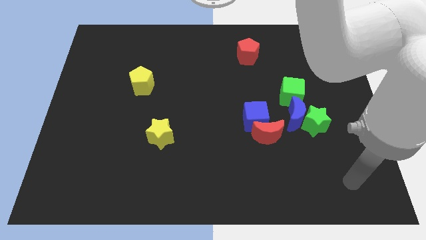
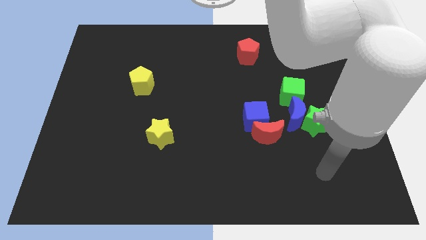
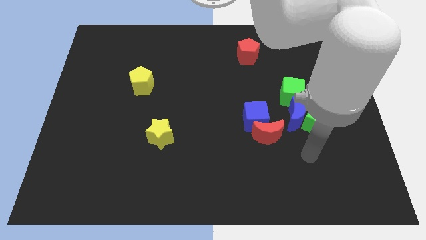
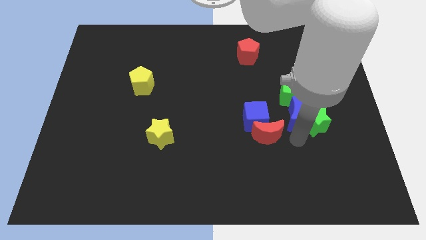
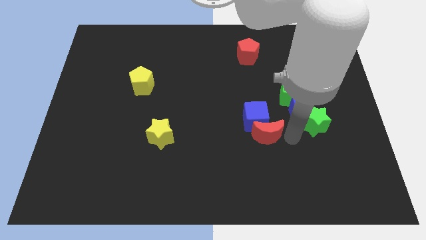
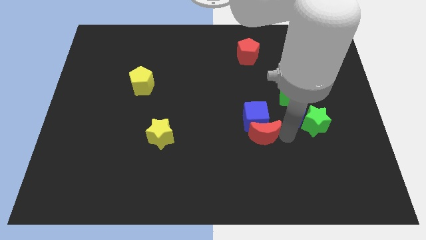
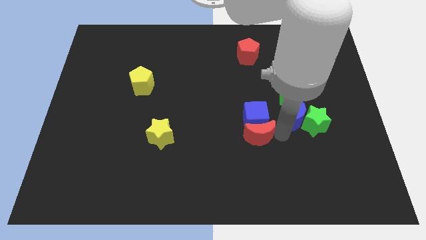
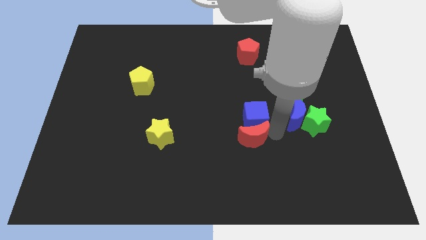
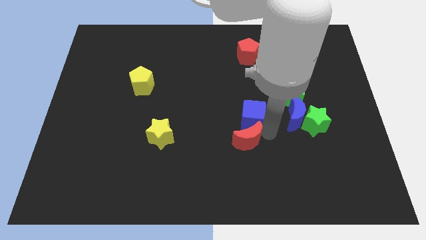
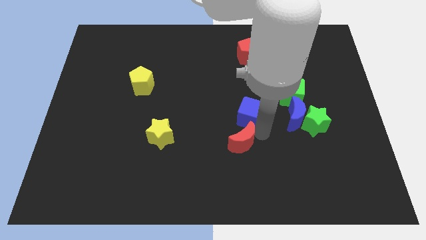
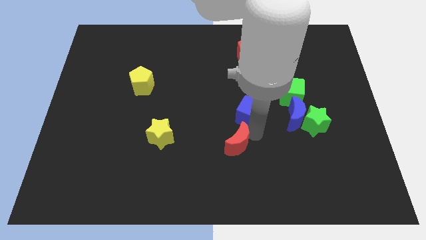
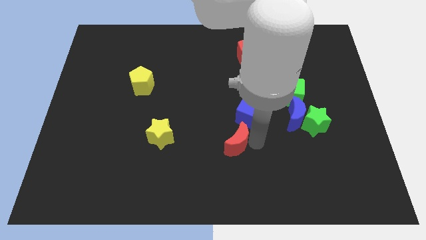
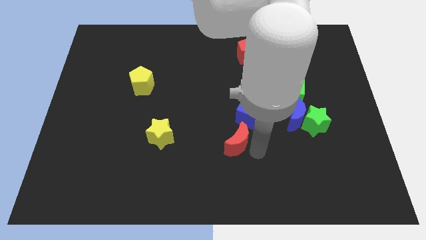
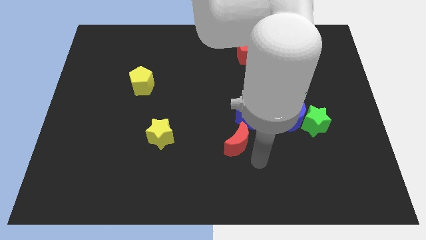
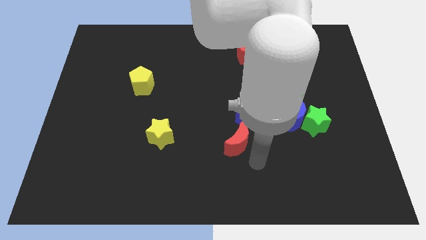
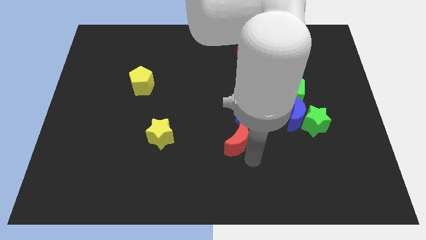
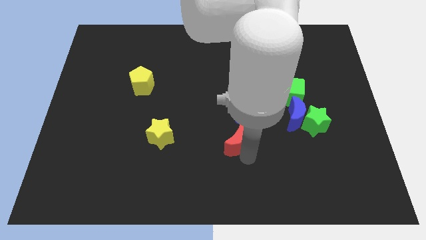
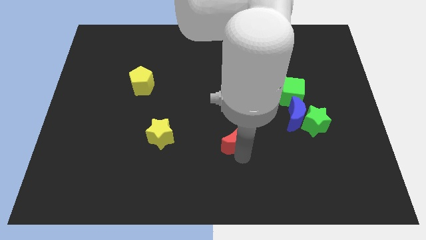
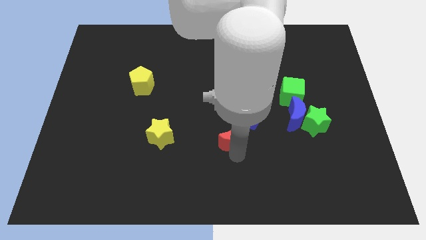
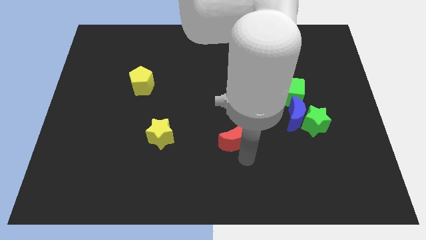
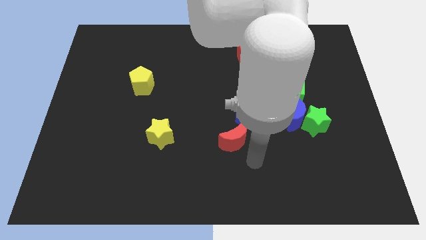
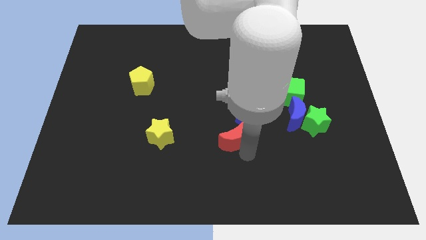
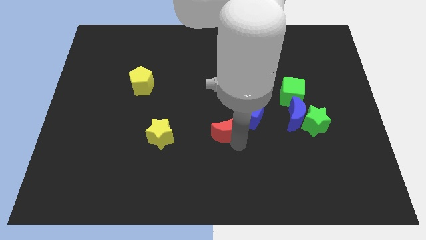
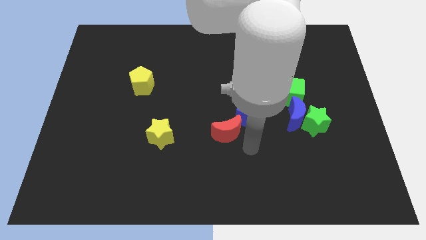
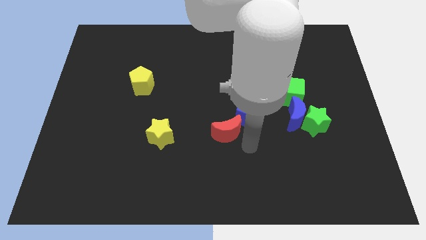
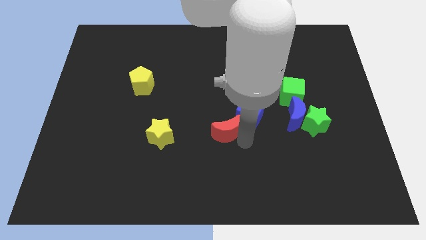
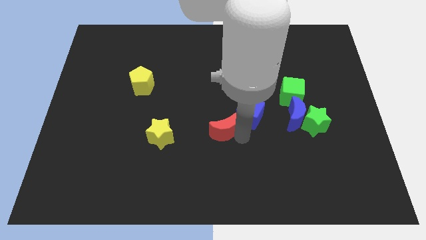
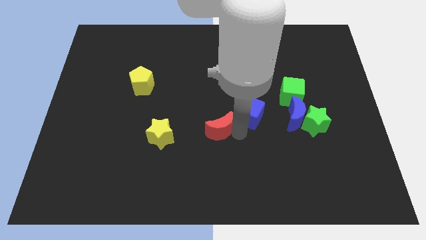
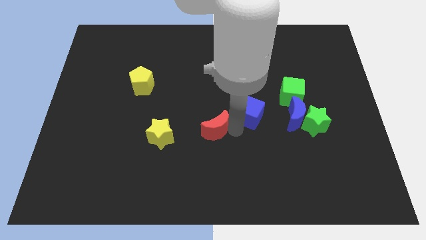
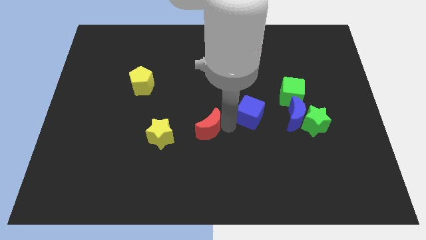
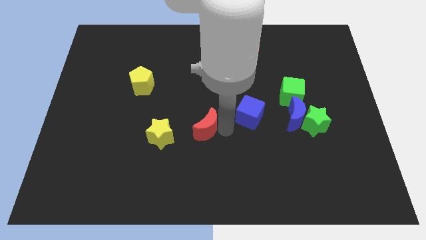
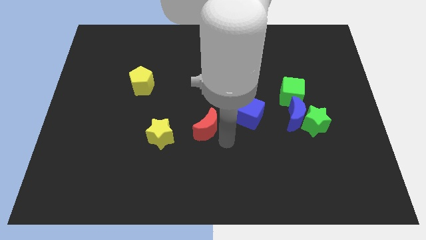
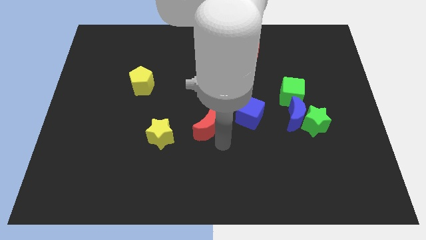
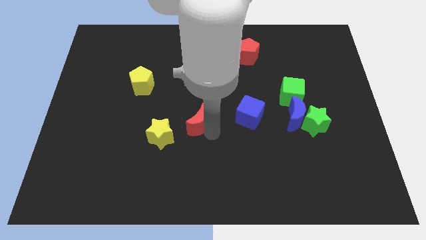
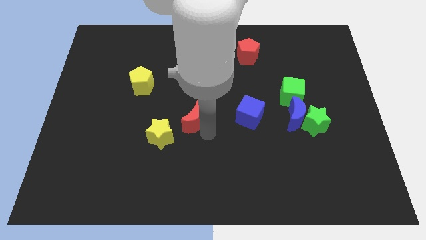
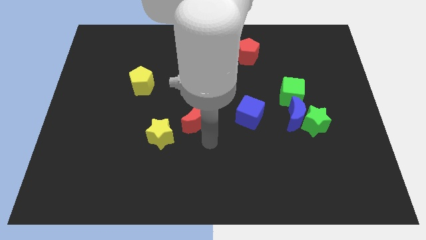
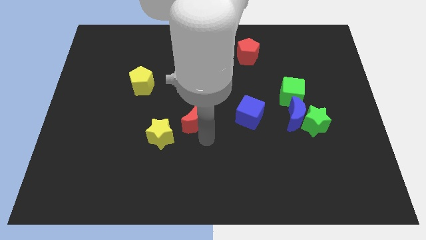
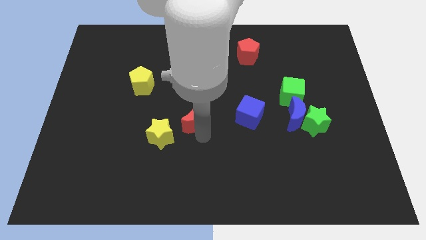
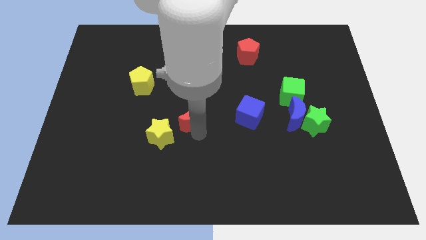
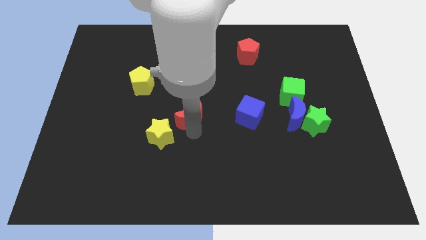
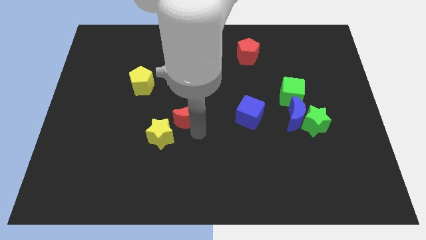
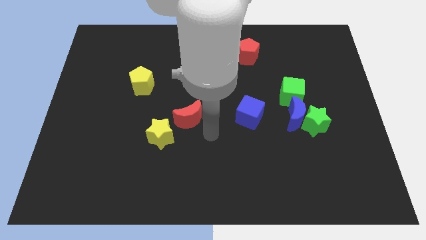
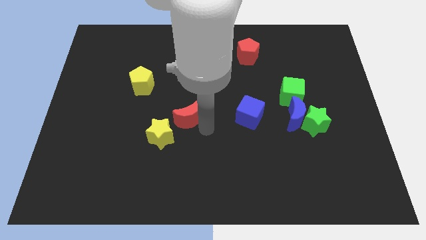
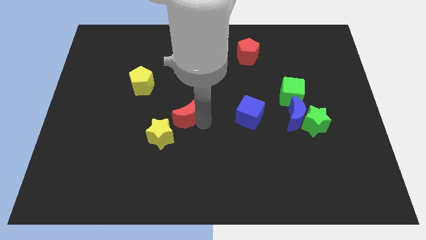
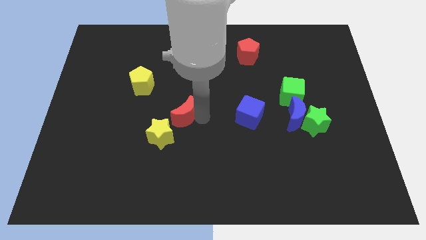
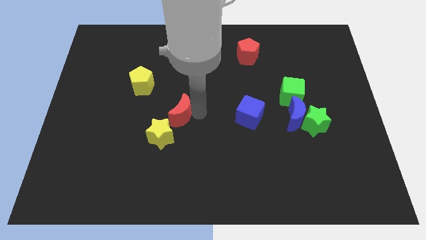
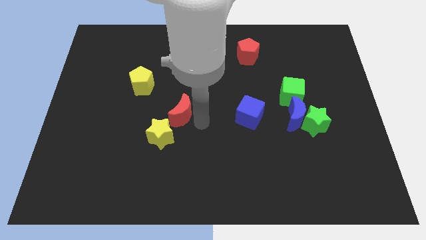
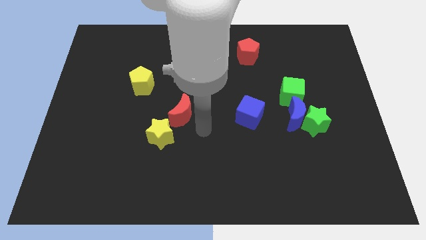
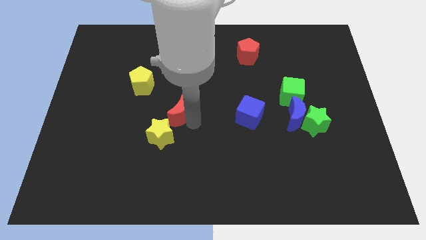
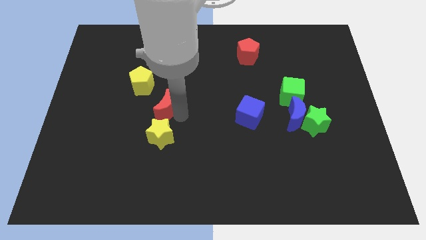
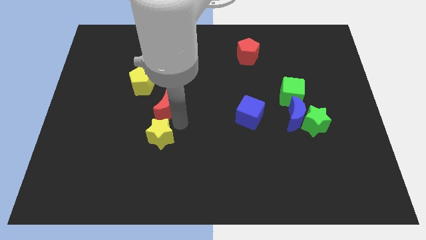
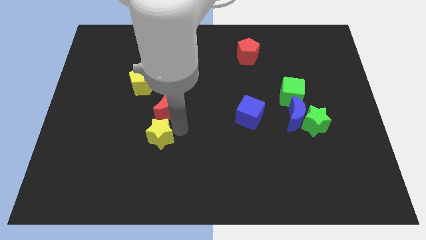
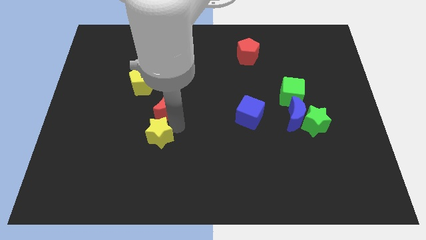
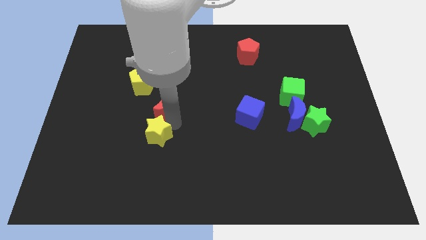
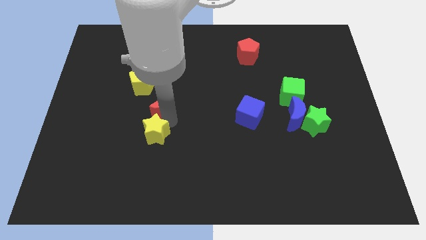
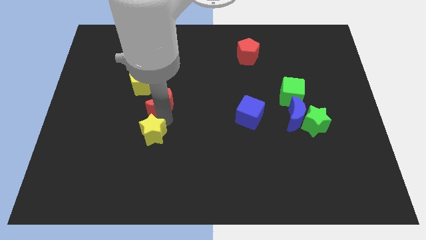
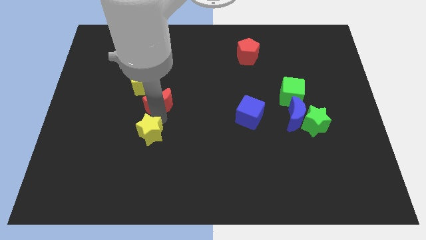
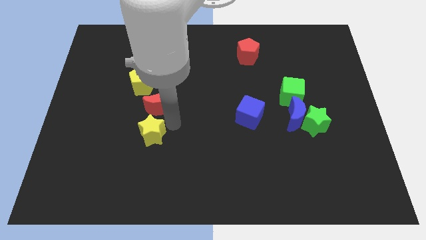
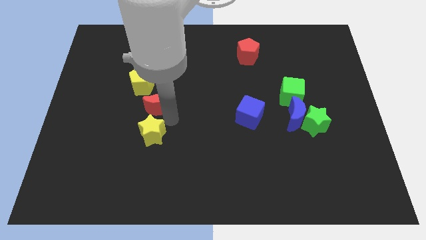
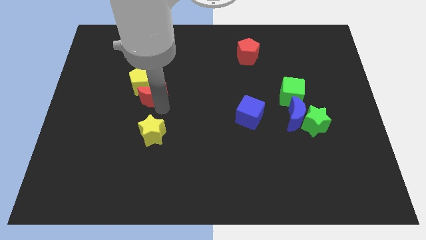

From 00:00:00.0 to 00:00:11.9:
slide the red moon next to the yellow pentagon

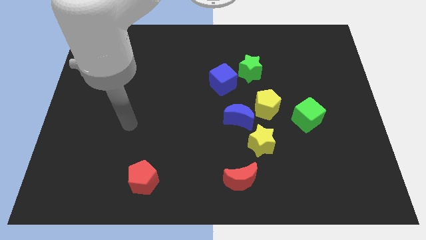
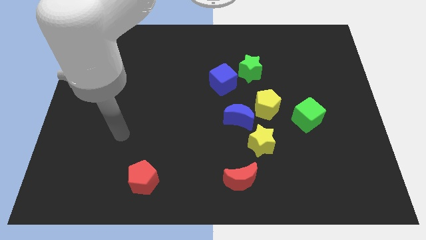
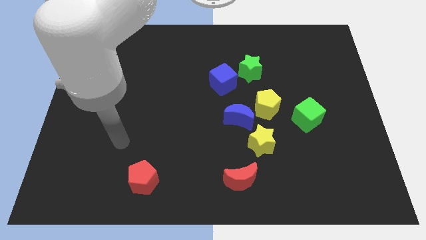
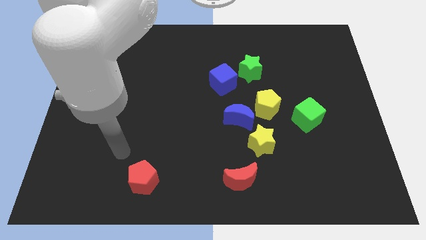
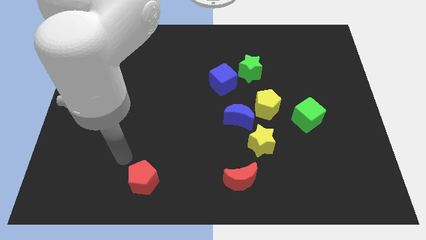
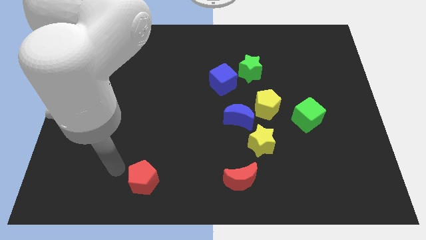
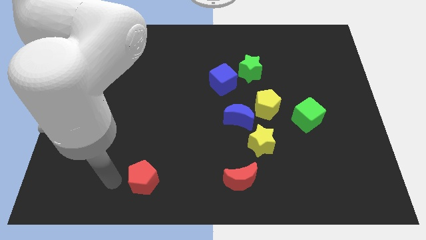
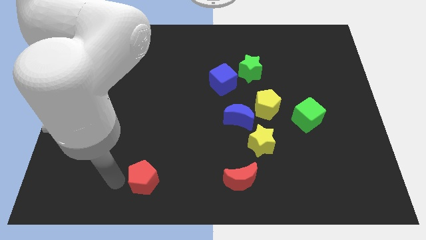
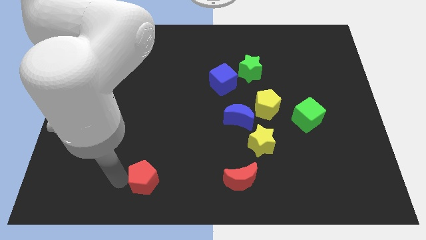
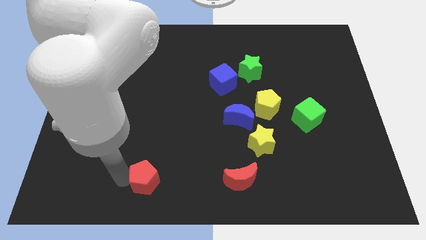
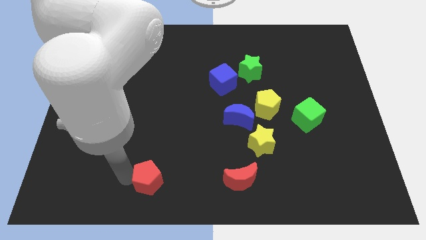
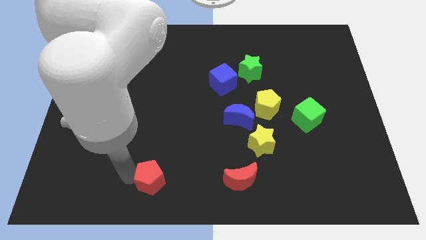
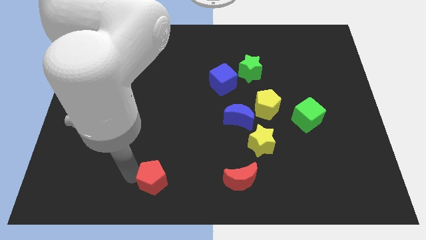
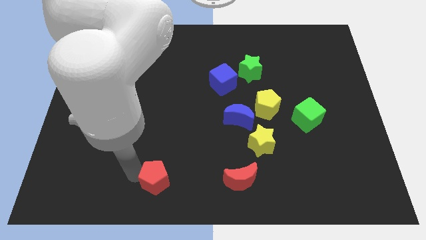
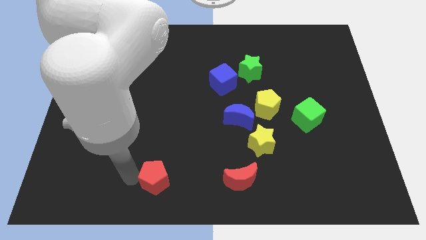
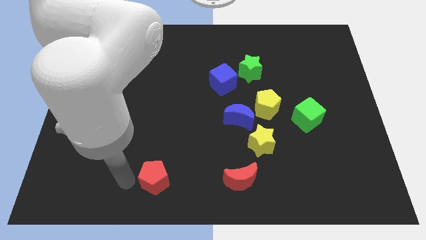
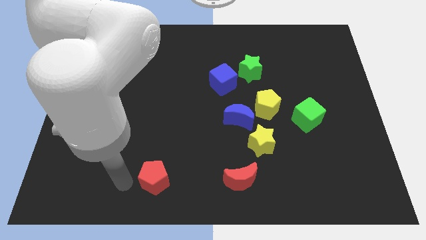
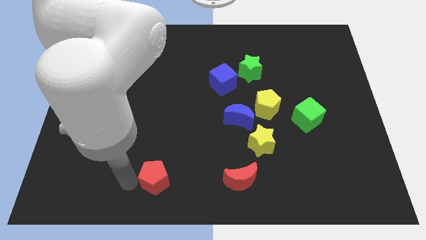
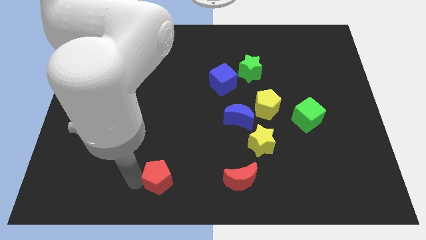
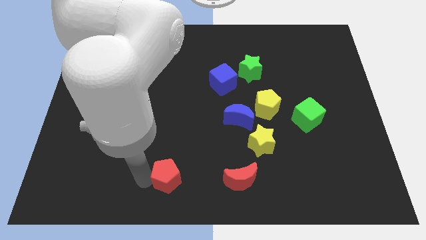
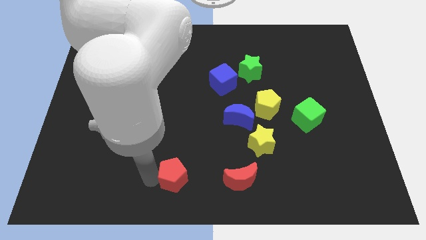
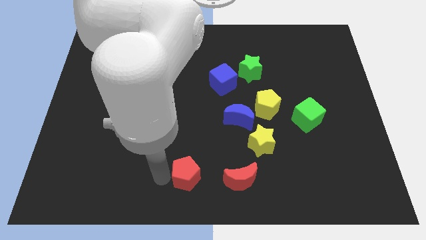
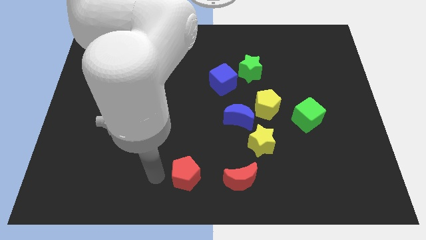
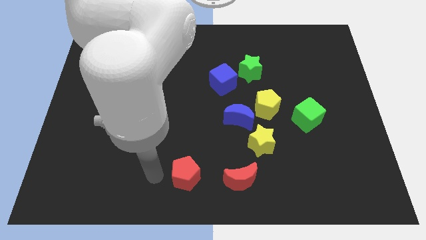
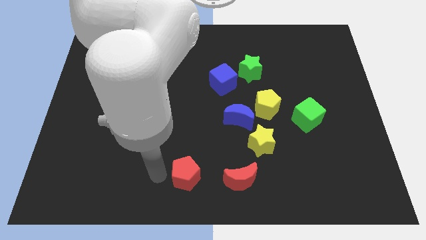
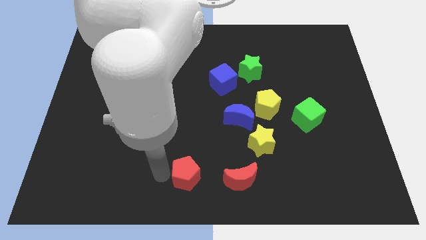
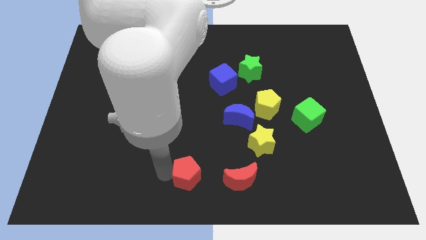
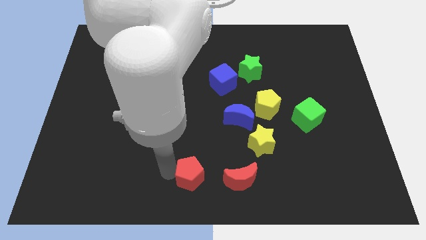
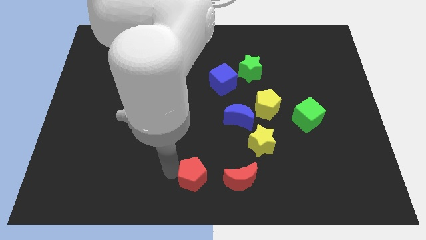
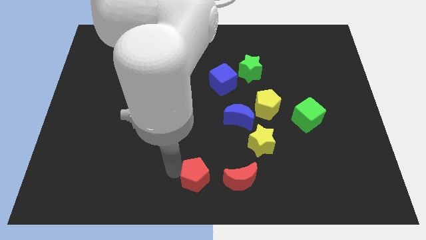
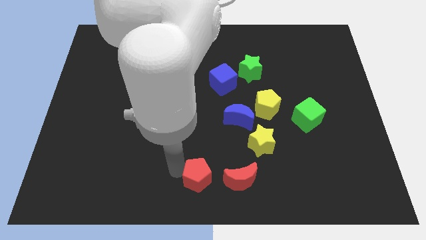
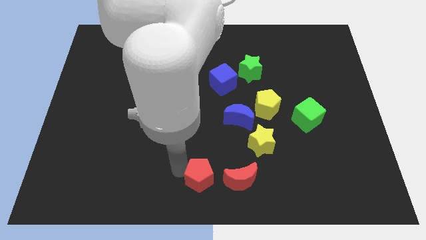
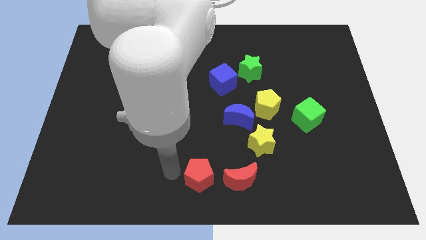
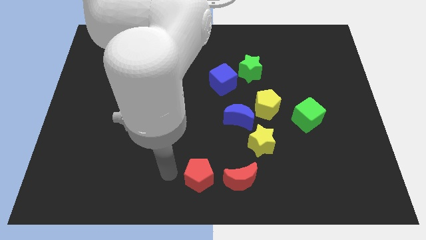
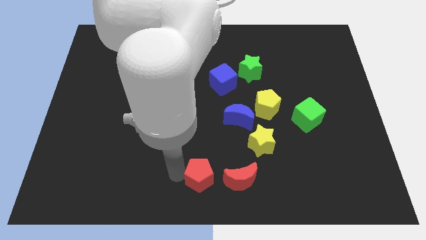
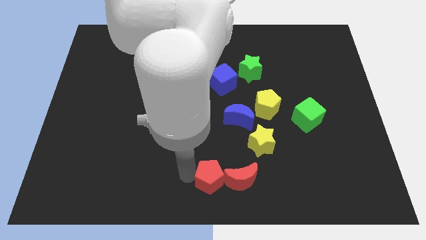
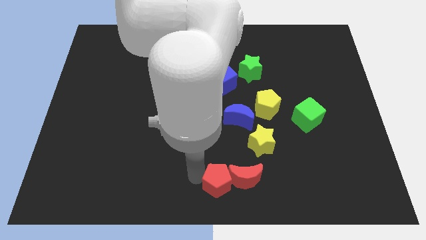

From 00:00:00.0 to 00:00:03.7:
move the red pentagon close to the red moon
